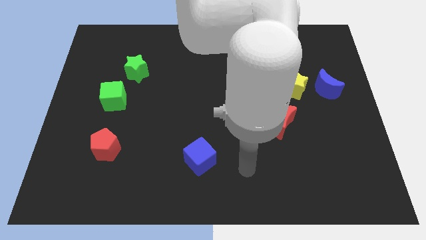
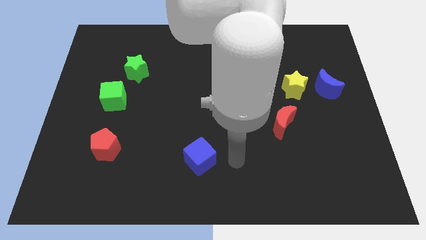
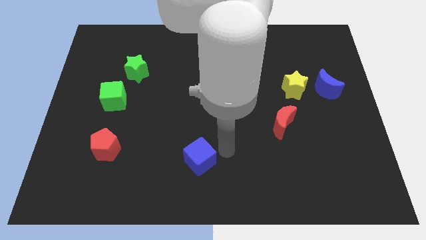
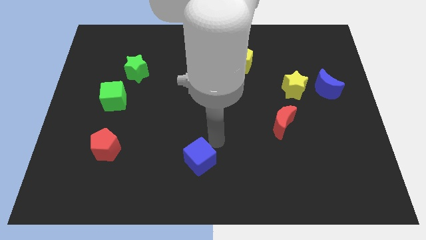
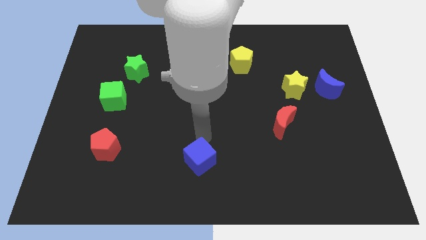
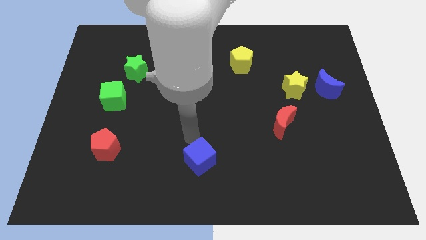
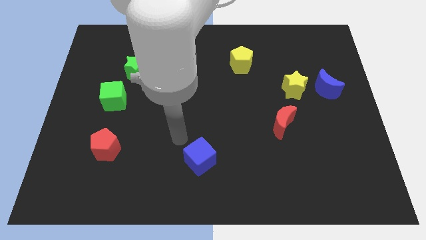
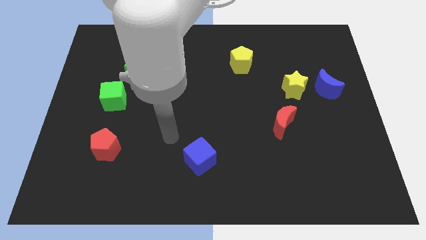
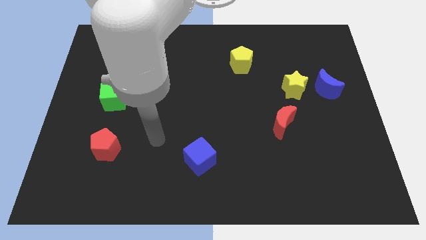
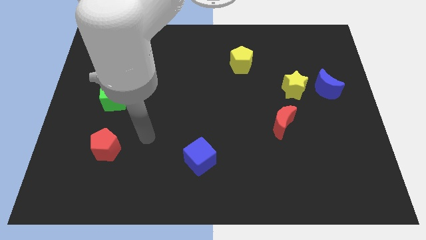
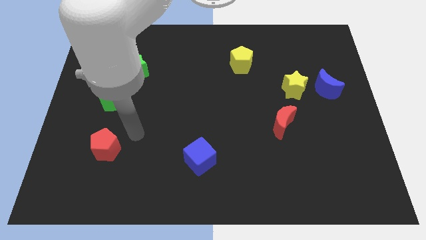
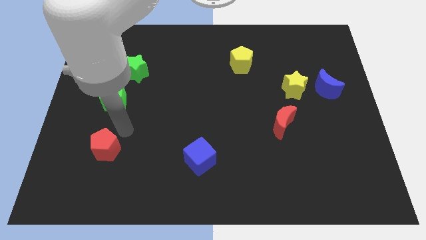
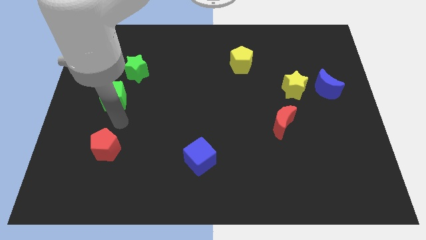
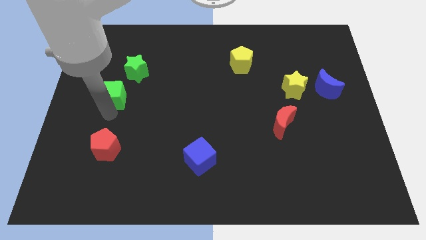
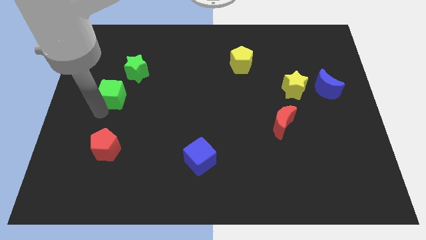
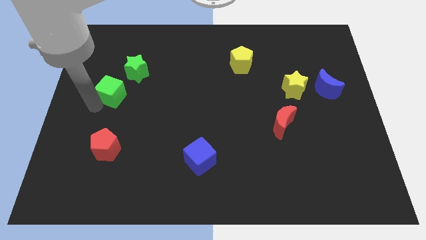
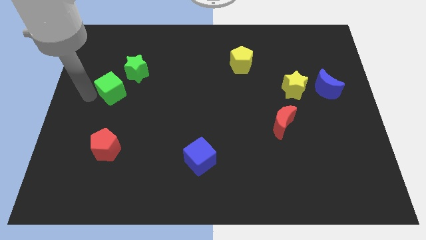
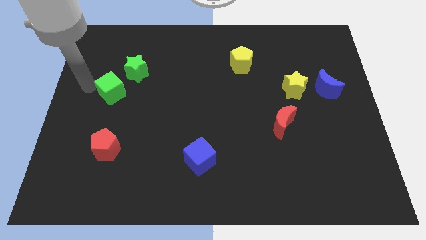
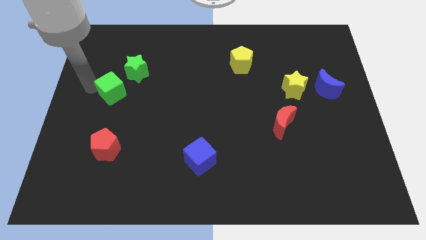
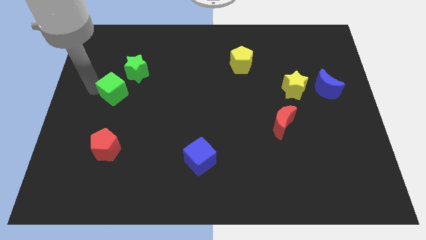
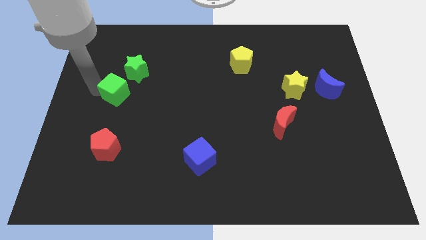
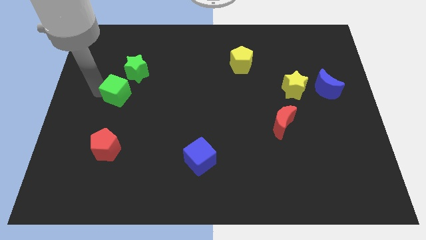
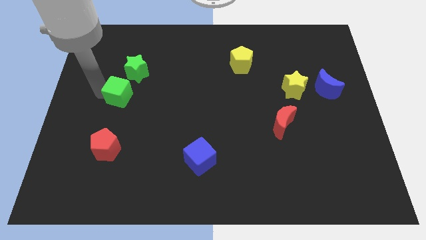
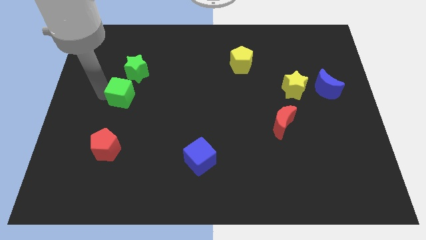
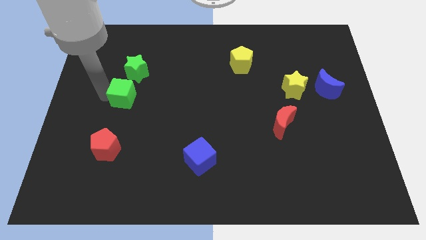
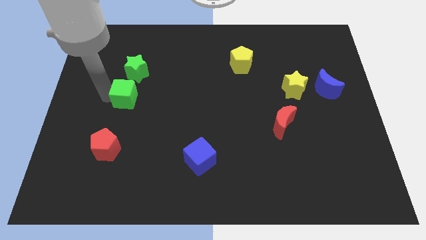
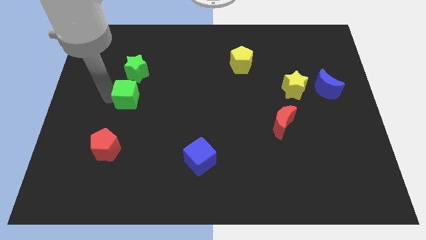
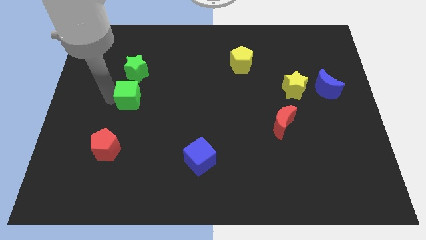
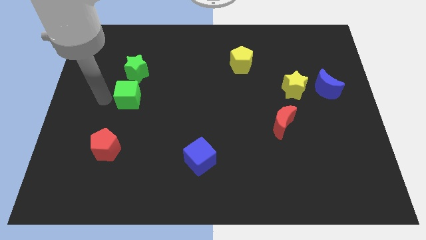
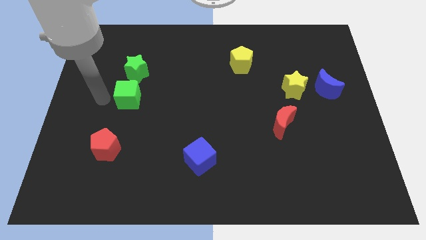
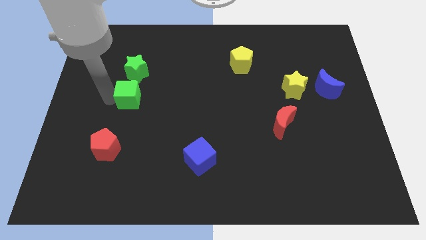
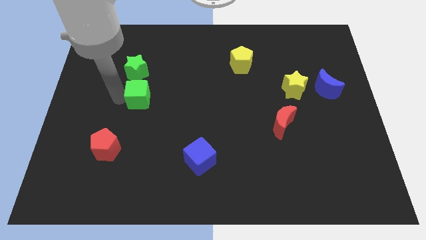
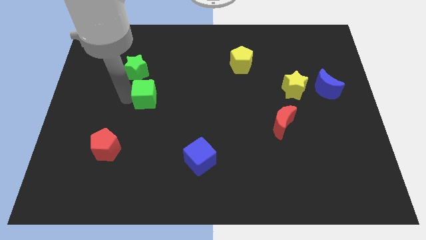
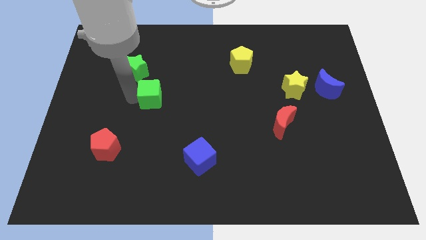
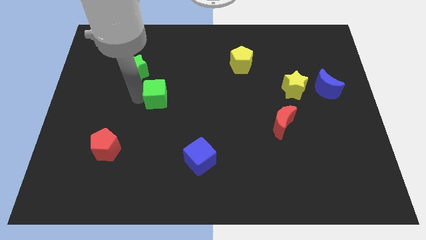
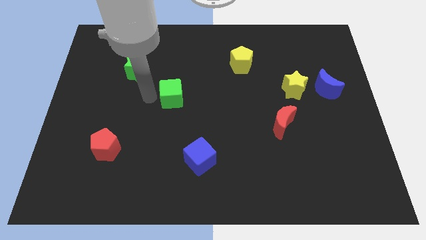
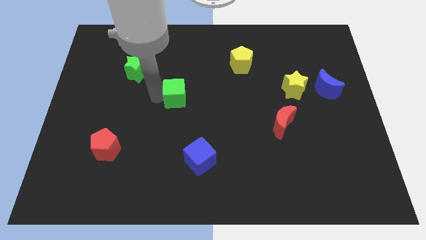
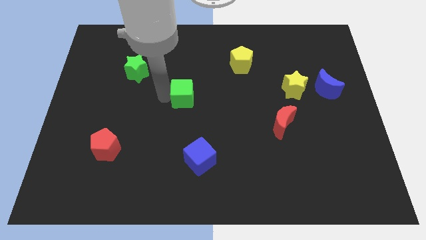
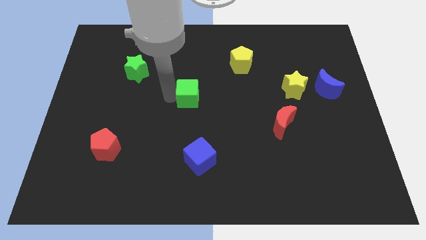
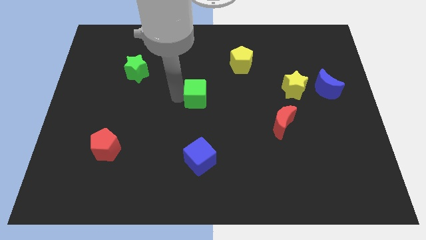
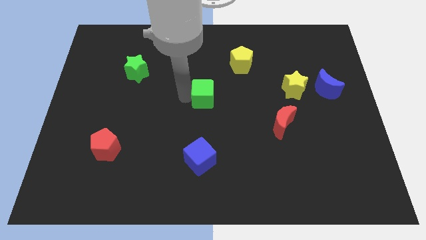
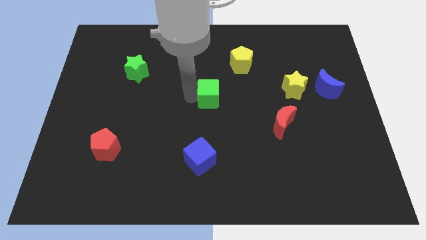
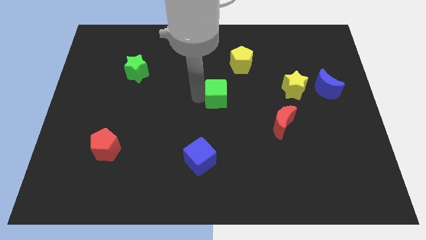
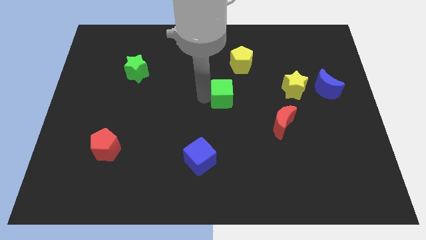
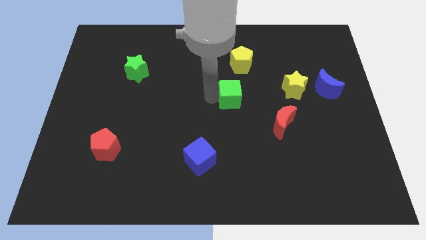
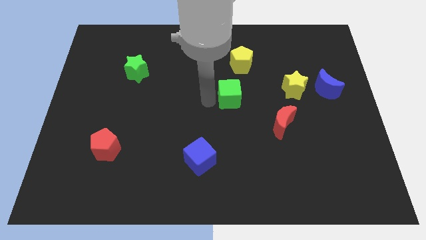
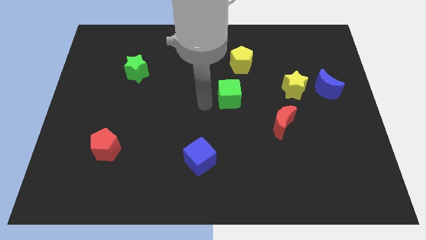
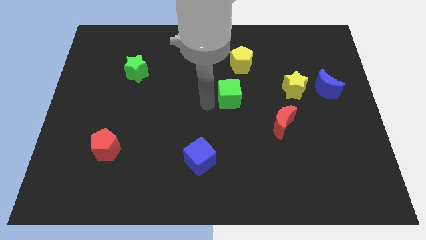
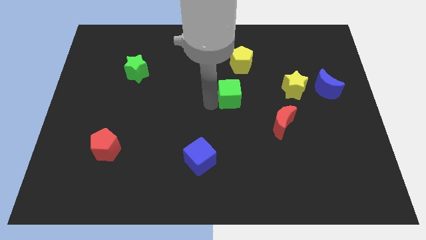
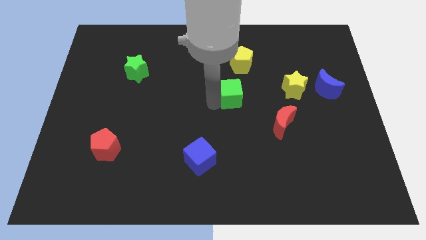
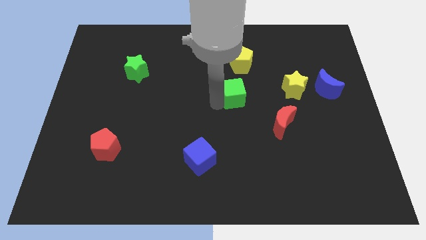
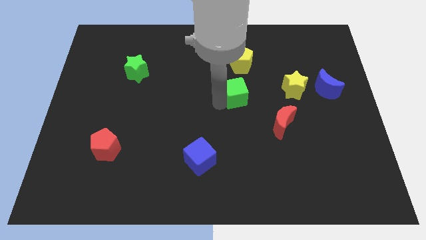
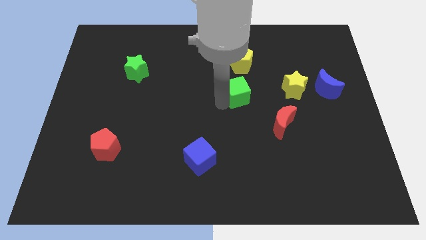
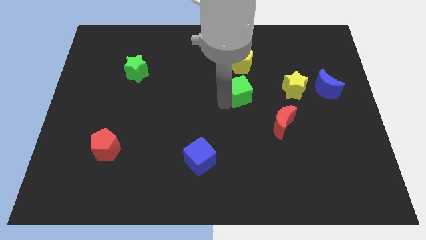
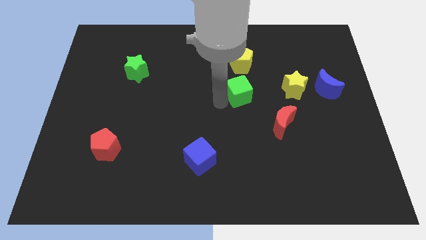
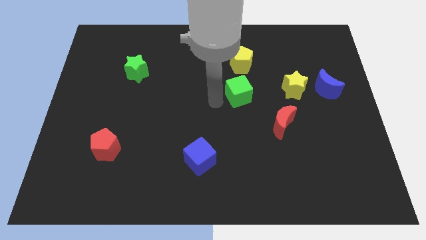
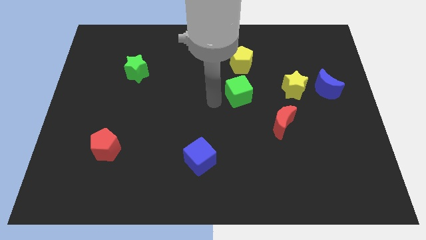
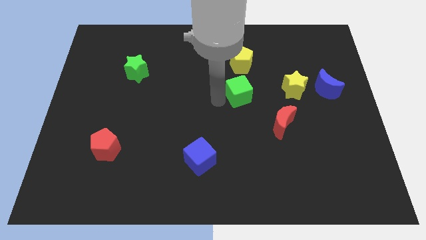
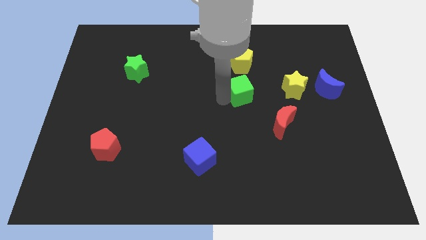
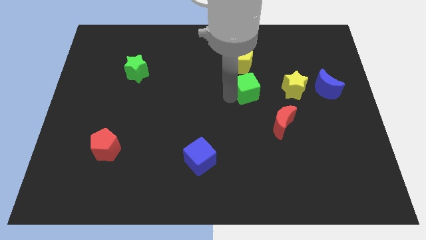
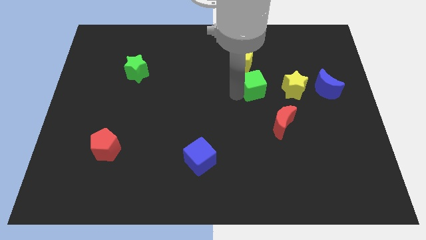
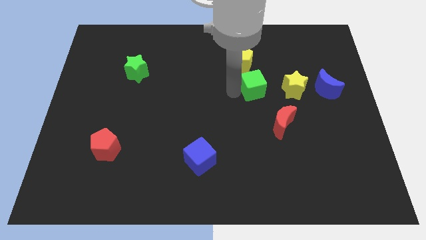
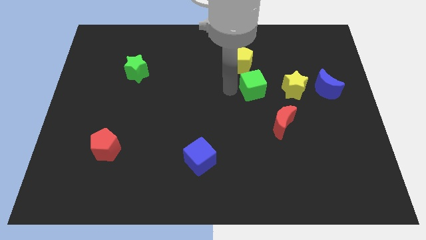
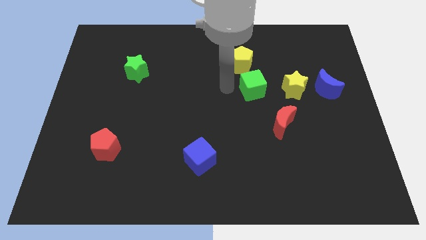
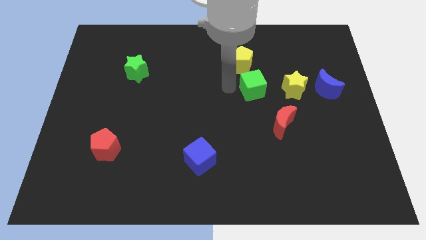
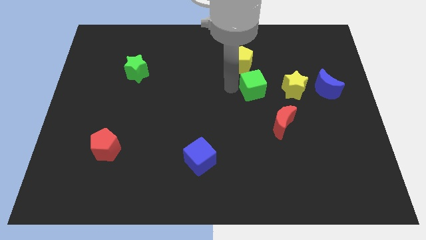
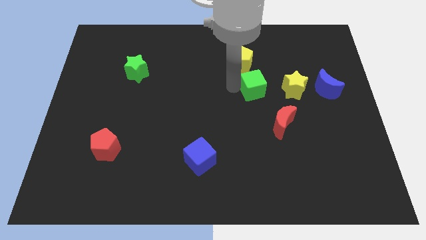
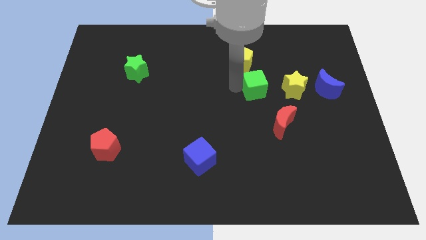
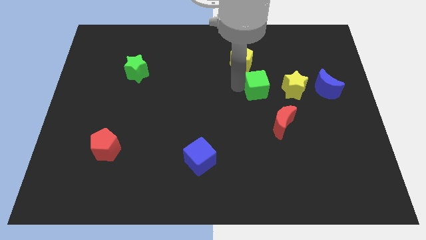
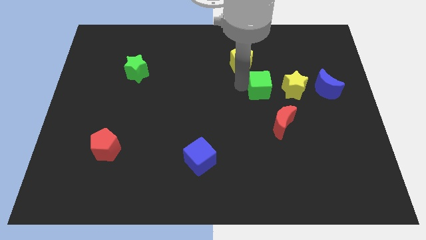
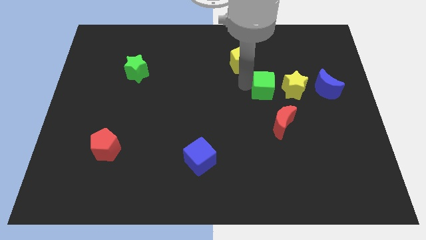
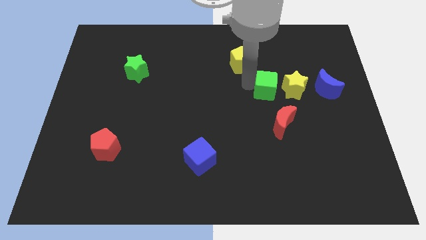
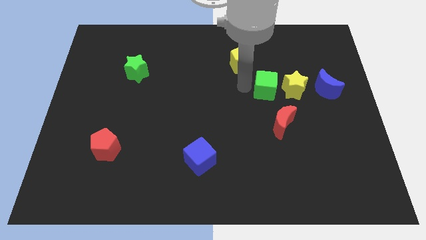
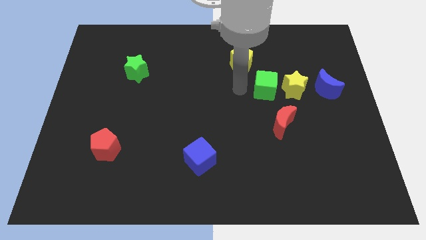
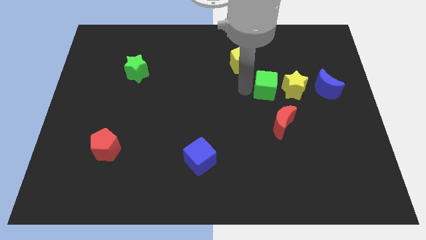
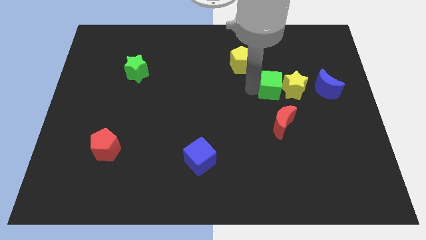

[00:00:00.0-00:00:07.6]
slide the green cube next to the yellow star
